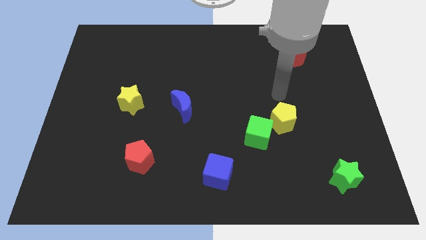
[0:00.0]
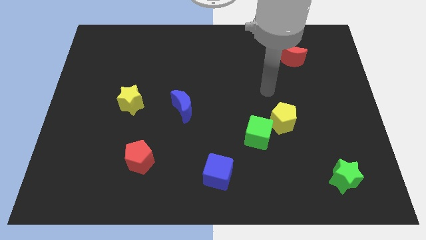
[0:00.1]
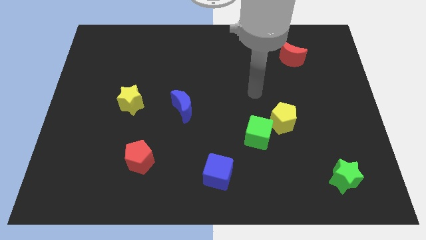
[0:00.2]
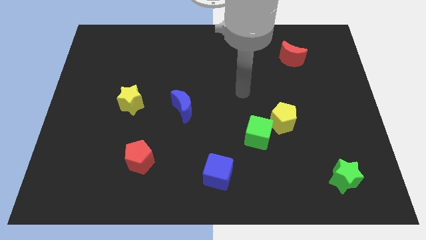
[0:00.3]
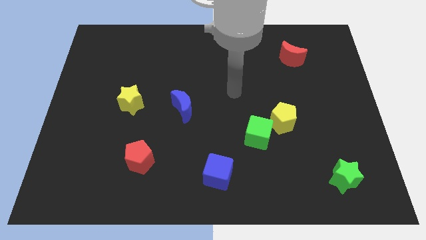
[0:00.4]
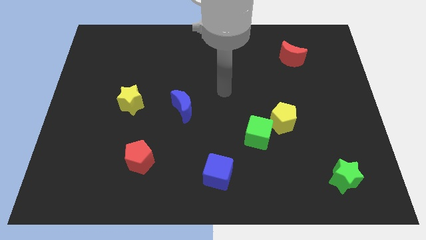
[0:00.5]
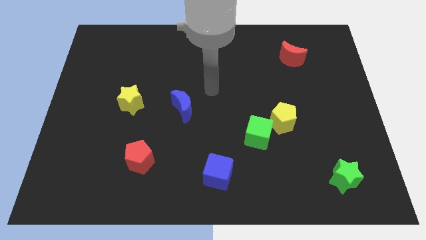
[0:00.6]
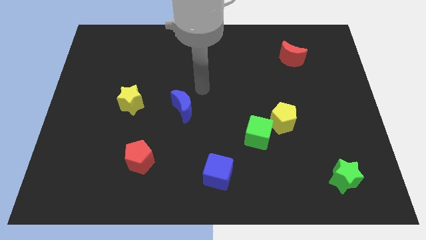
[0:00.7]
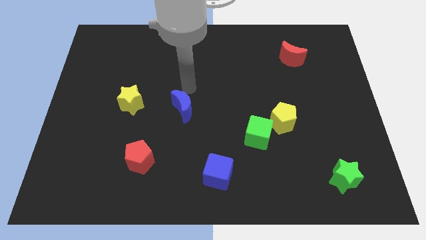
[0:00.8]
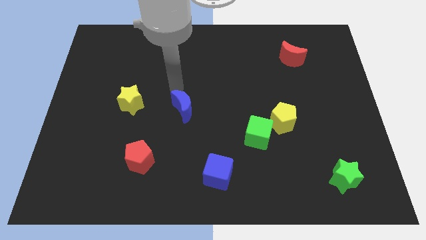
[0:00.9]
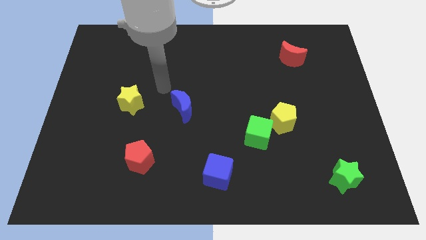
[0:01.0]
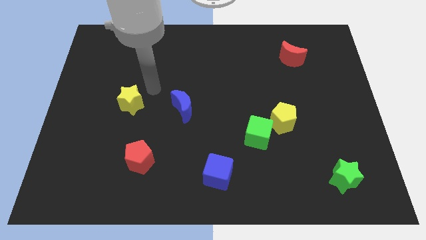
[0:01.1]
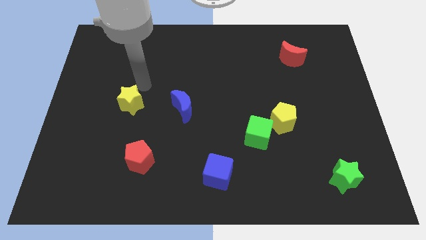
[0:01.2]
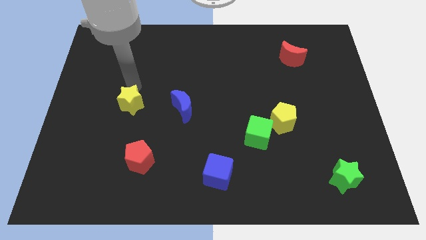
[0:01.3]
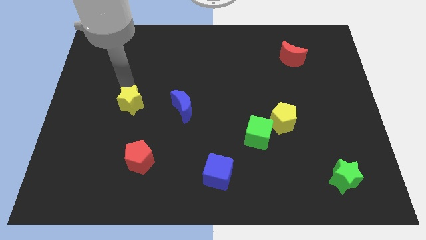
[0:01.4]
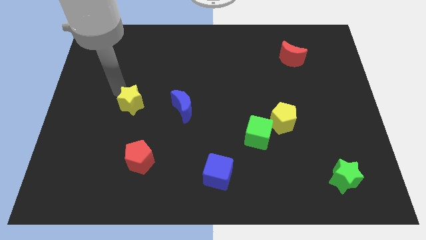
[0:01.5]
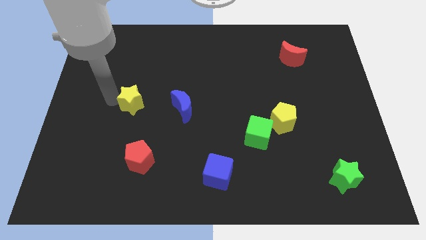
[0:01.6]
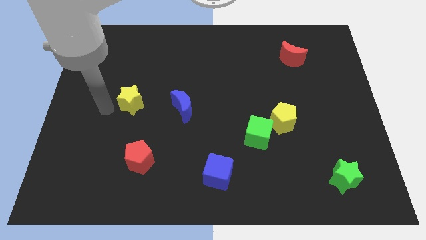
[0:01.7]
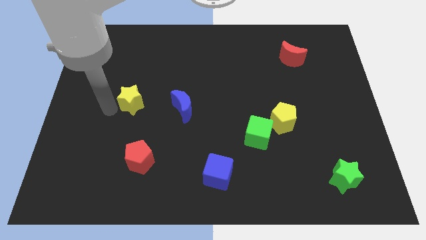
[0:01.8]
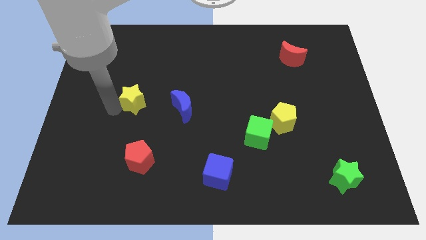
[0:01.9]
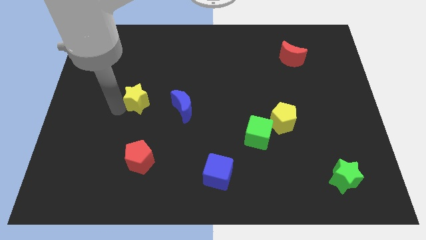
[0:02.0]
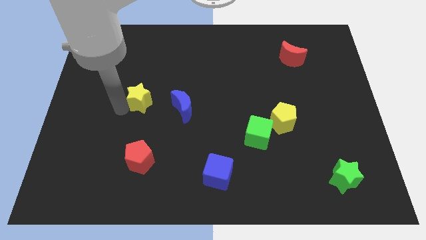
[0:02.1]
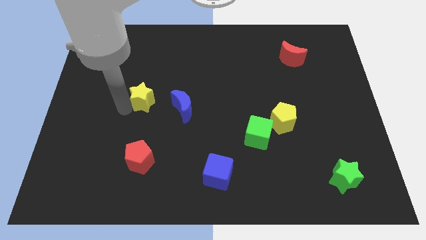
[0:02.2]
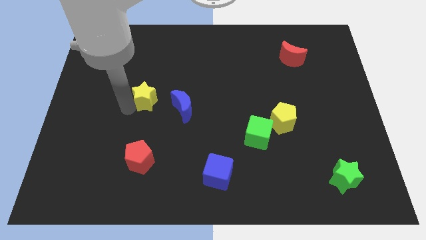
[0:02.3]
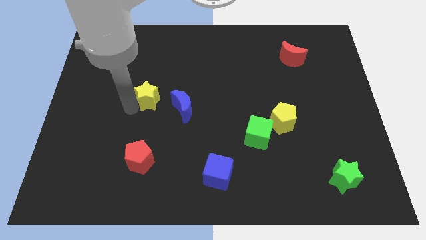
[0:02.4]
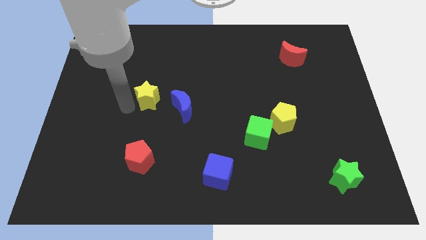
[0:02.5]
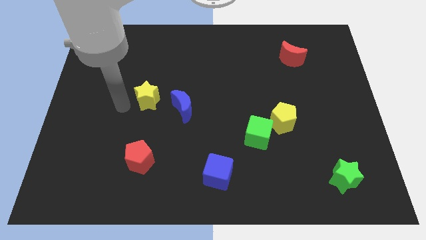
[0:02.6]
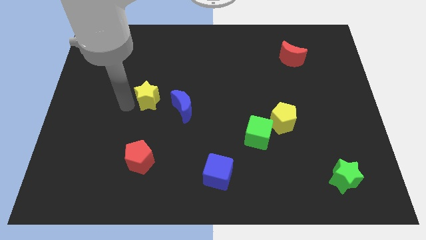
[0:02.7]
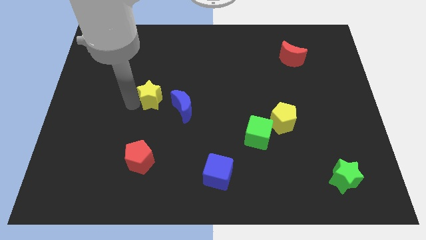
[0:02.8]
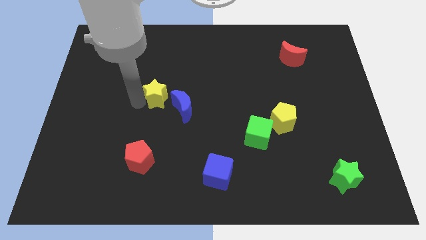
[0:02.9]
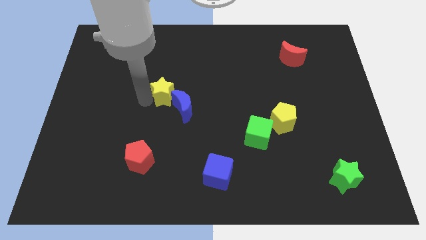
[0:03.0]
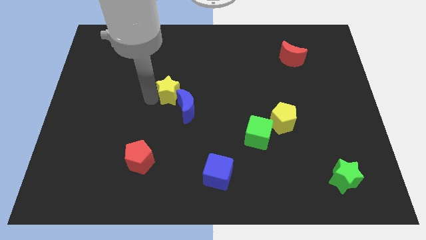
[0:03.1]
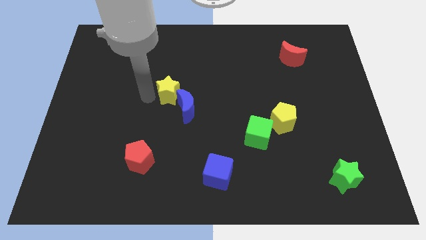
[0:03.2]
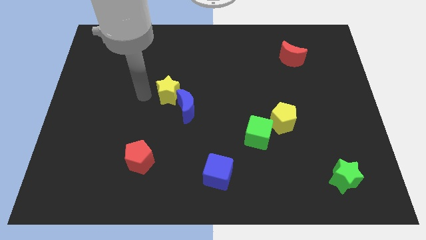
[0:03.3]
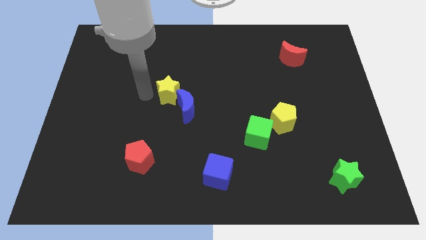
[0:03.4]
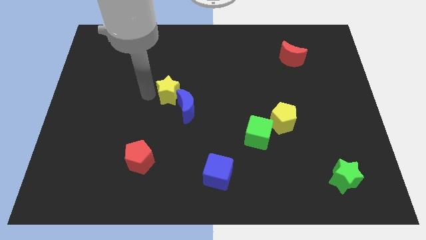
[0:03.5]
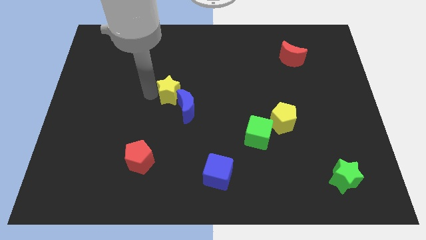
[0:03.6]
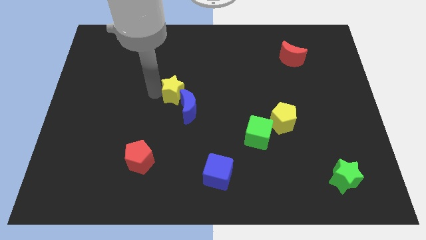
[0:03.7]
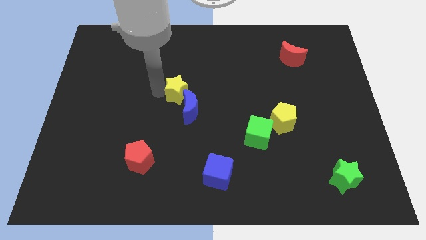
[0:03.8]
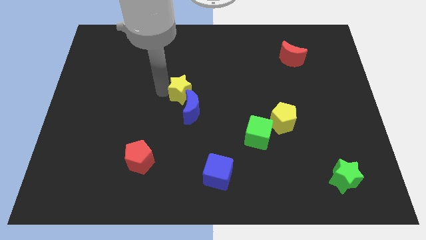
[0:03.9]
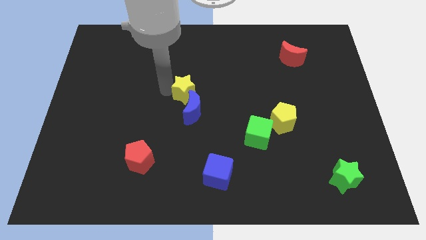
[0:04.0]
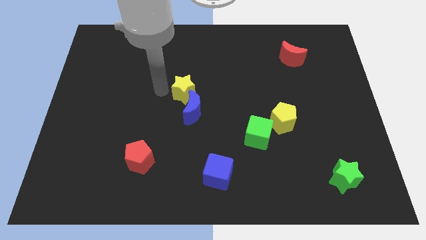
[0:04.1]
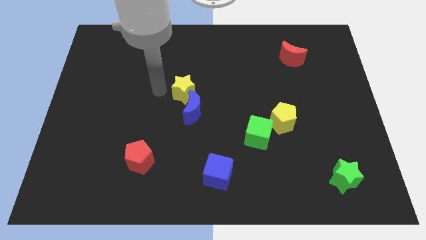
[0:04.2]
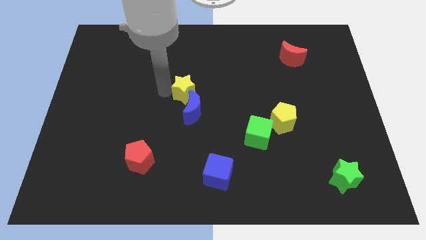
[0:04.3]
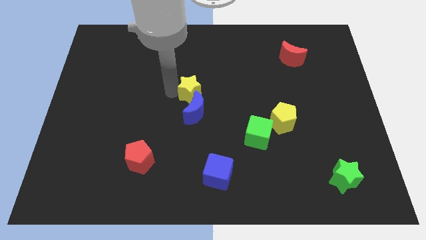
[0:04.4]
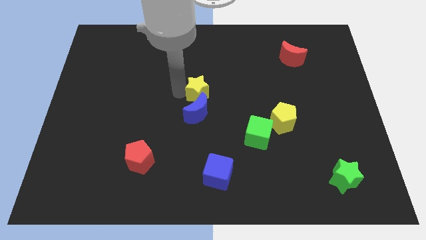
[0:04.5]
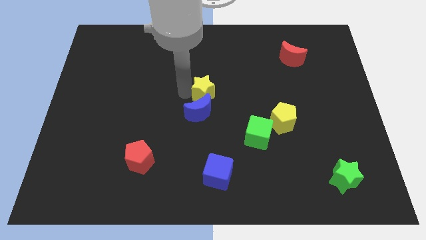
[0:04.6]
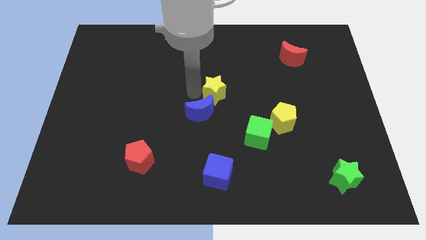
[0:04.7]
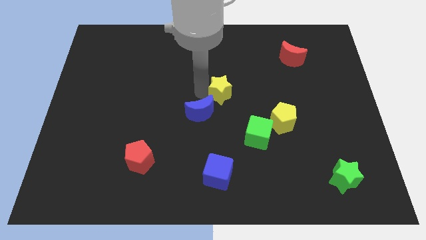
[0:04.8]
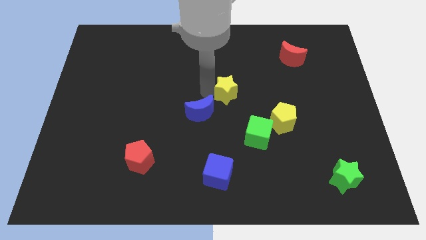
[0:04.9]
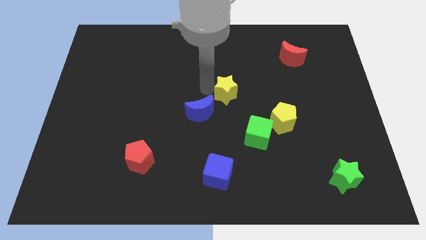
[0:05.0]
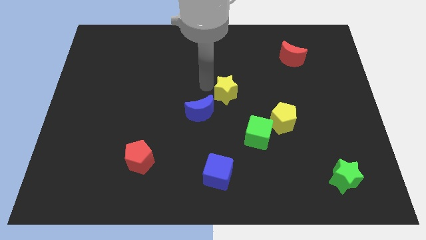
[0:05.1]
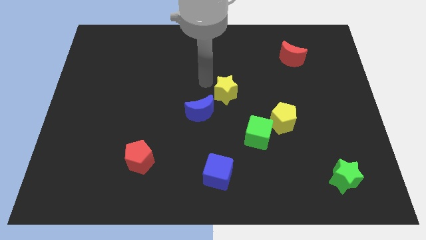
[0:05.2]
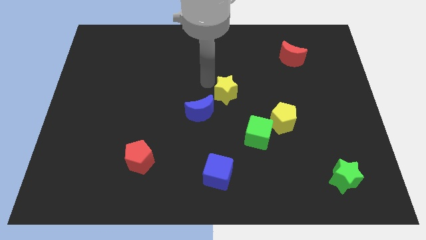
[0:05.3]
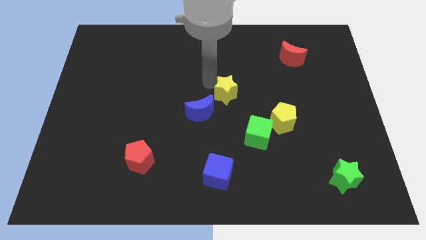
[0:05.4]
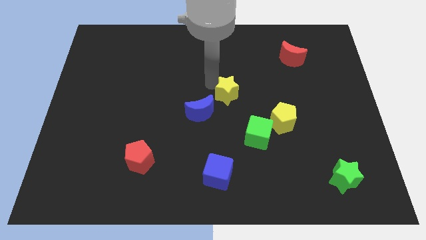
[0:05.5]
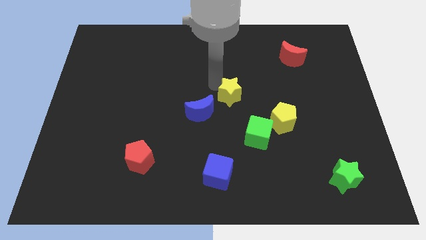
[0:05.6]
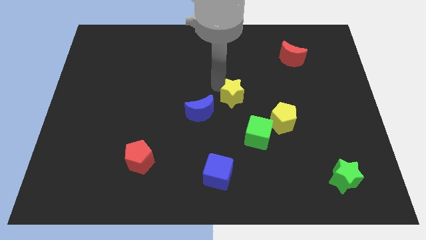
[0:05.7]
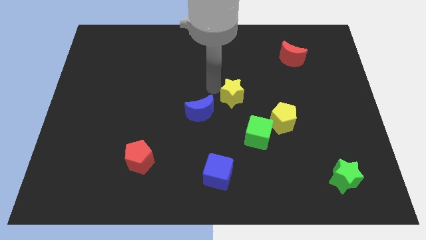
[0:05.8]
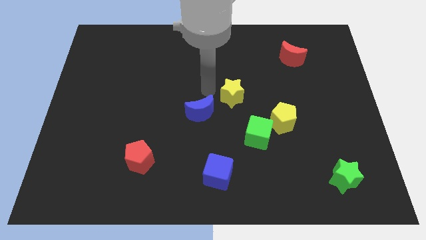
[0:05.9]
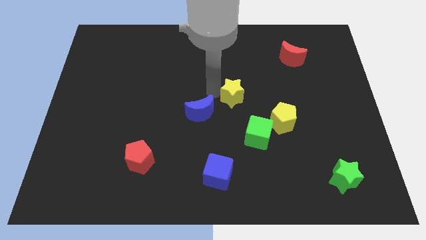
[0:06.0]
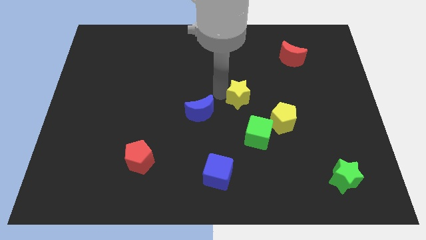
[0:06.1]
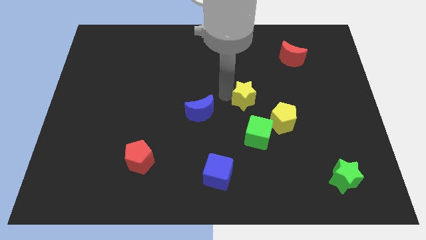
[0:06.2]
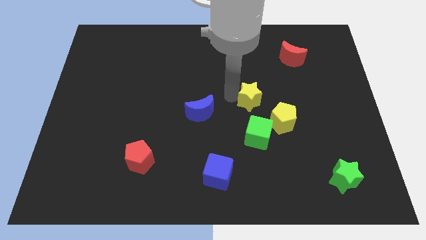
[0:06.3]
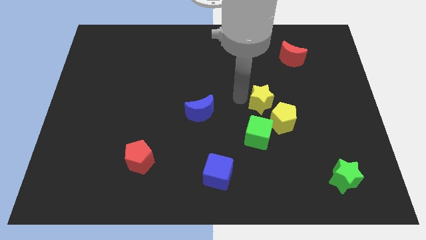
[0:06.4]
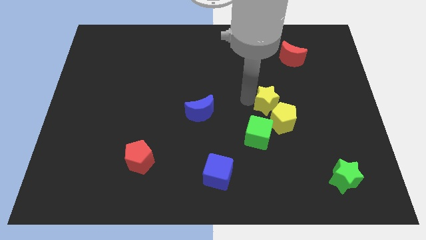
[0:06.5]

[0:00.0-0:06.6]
slide the yellow star diagonally up and to the right of the green cube

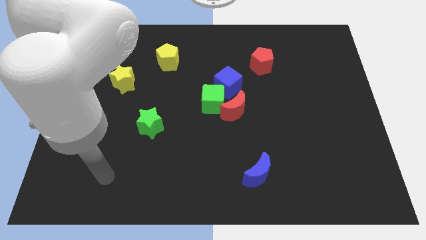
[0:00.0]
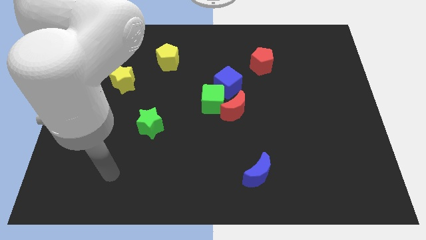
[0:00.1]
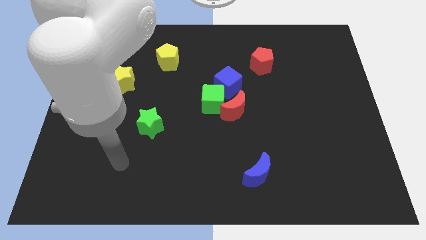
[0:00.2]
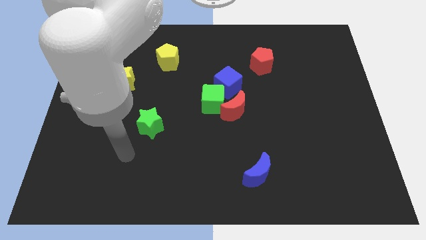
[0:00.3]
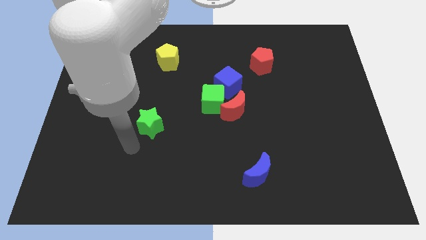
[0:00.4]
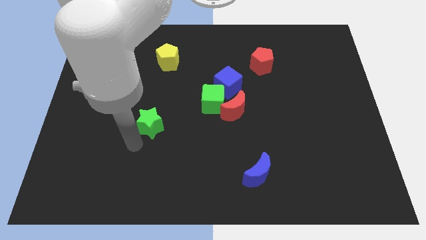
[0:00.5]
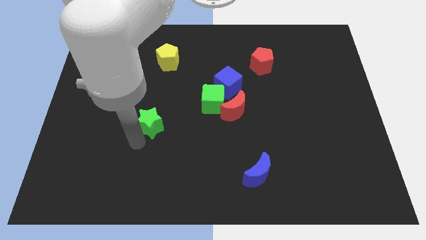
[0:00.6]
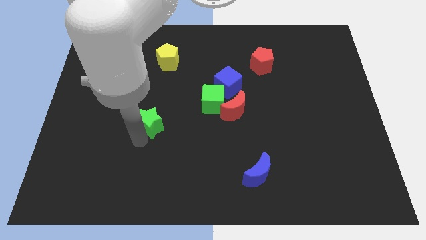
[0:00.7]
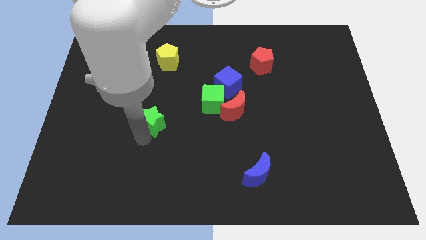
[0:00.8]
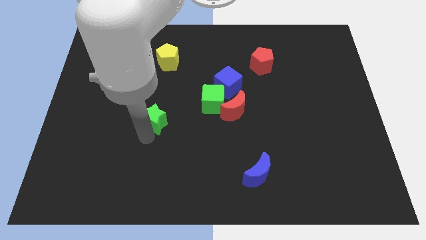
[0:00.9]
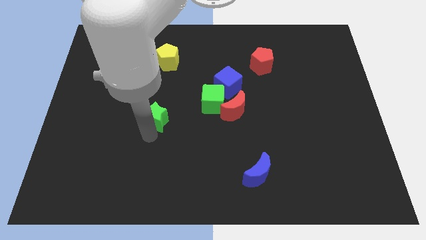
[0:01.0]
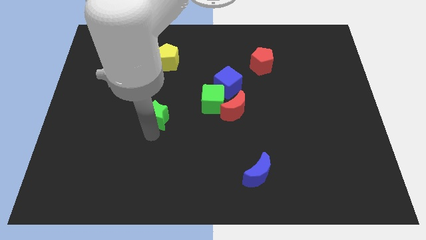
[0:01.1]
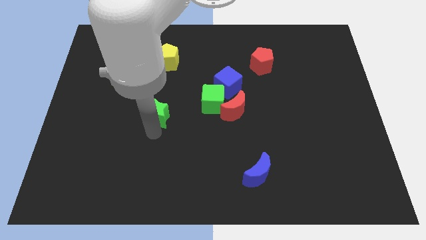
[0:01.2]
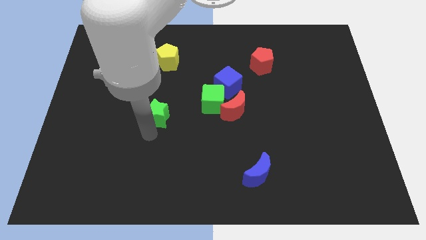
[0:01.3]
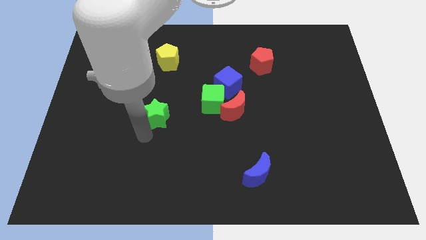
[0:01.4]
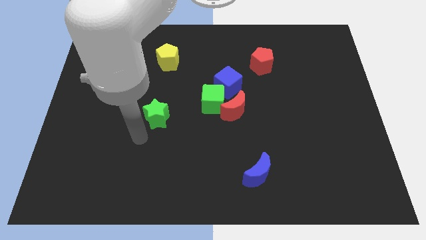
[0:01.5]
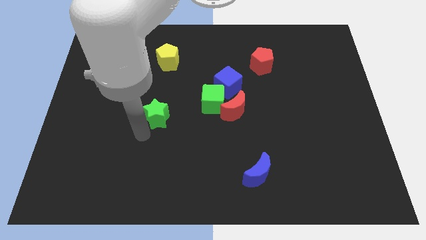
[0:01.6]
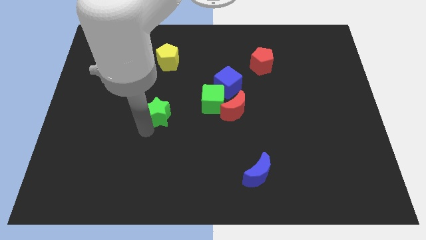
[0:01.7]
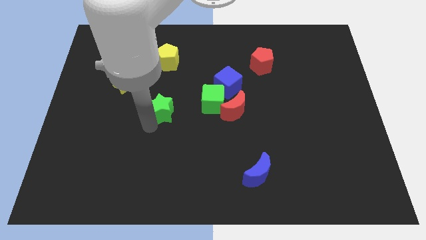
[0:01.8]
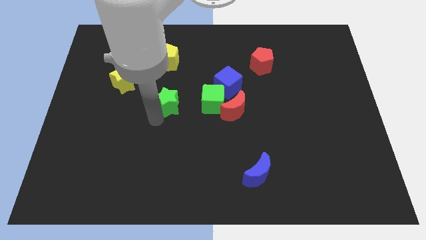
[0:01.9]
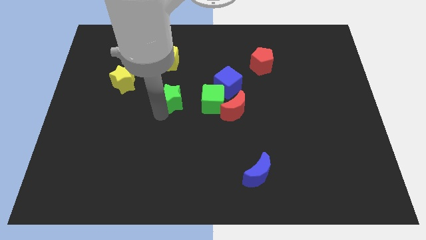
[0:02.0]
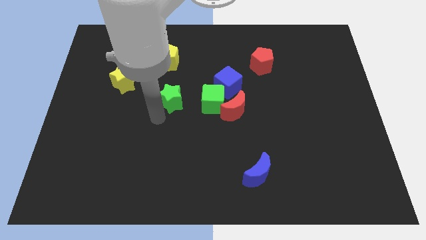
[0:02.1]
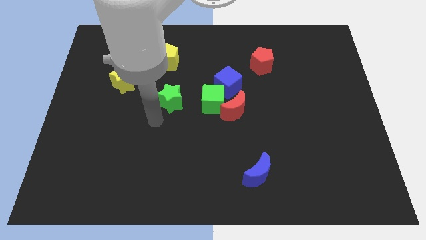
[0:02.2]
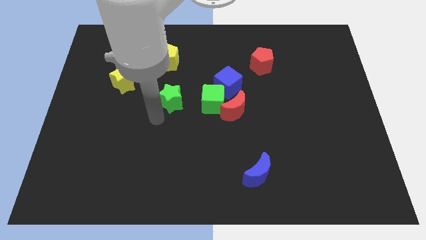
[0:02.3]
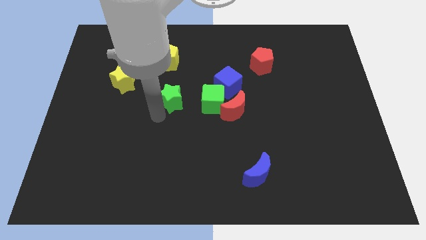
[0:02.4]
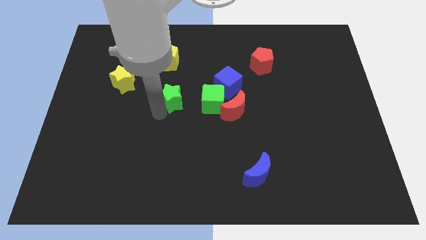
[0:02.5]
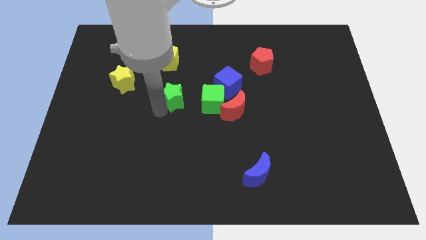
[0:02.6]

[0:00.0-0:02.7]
put the green star left of the blue cube
